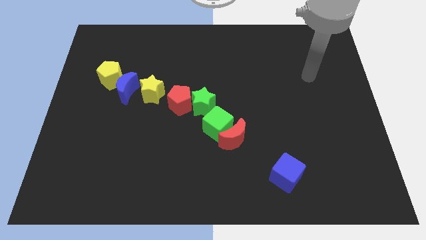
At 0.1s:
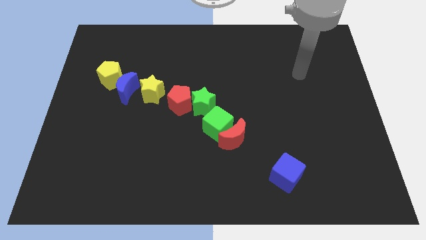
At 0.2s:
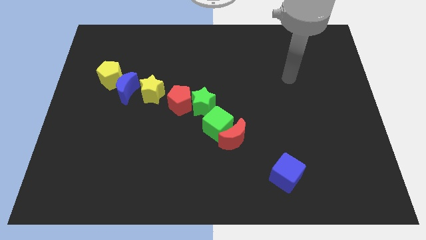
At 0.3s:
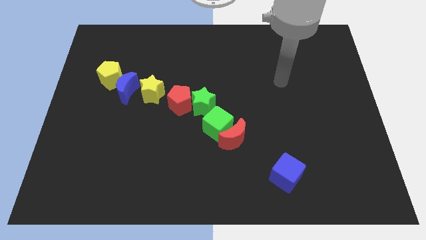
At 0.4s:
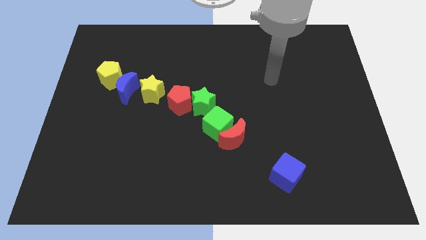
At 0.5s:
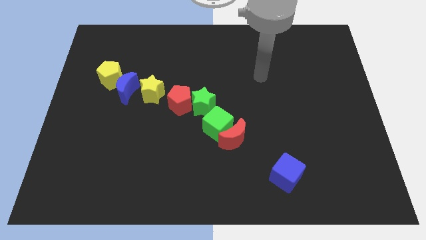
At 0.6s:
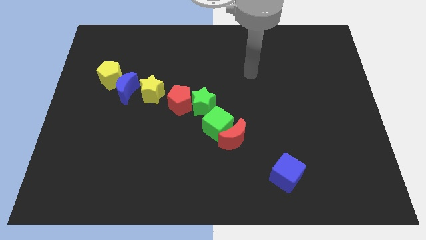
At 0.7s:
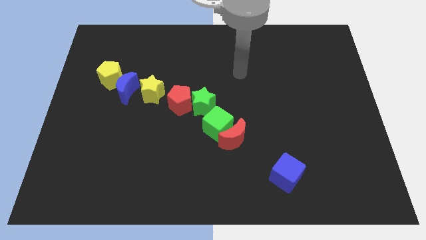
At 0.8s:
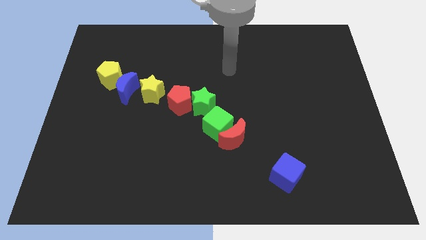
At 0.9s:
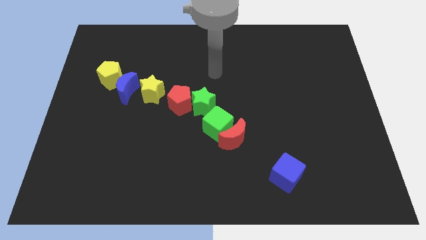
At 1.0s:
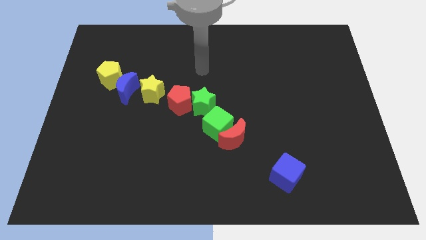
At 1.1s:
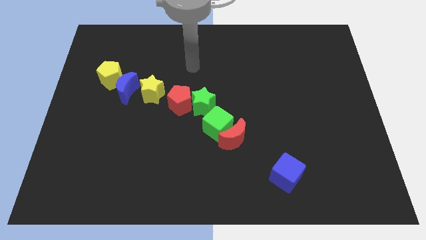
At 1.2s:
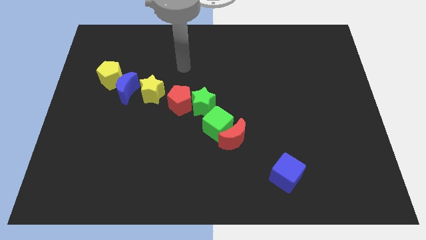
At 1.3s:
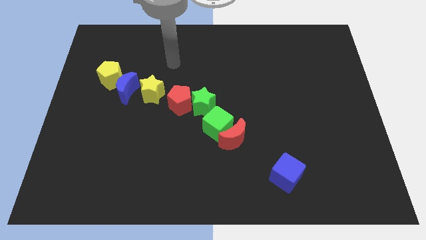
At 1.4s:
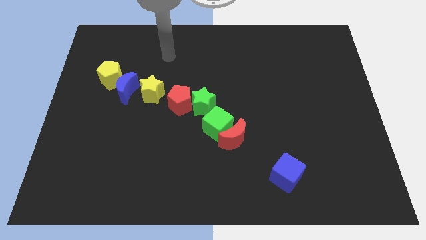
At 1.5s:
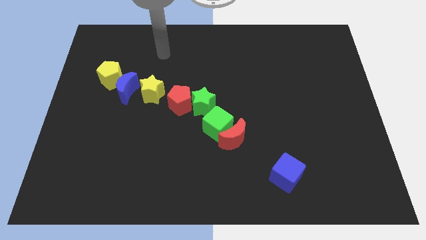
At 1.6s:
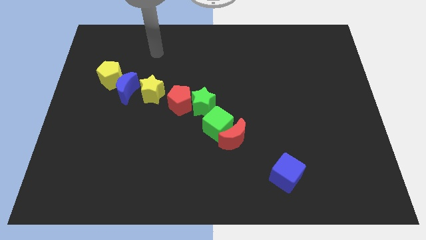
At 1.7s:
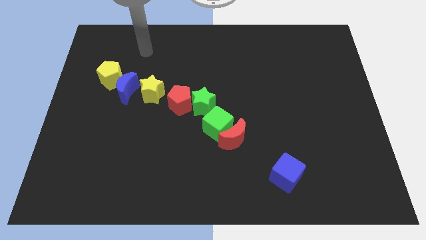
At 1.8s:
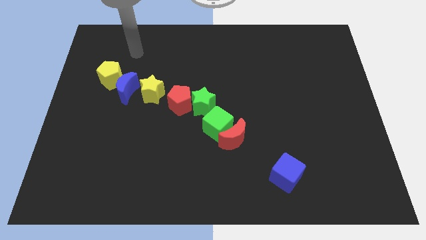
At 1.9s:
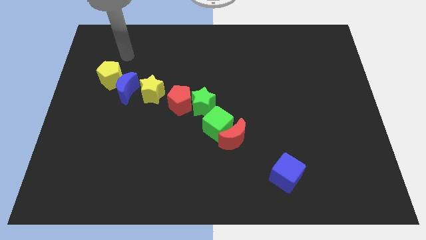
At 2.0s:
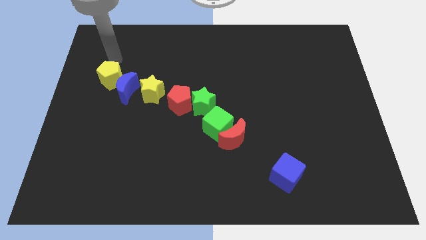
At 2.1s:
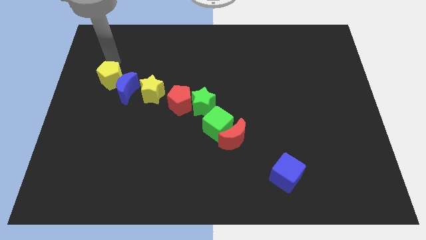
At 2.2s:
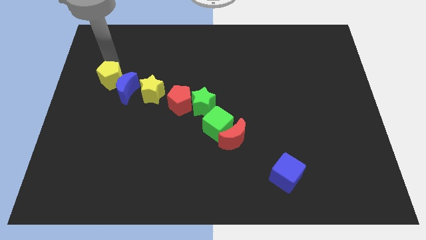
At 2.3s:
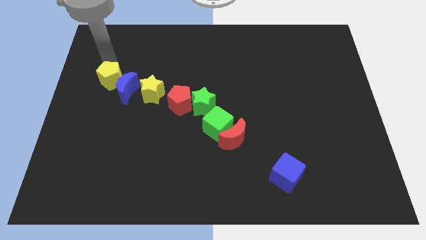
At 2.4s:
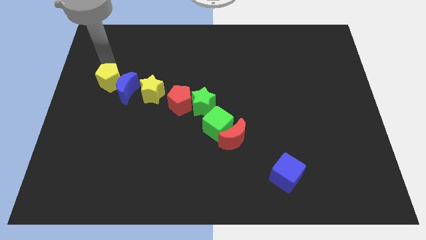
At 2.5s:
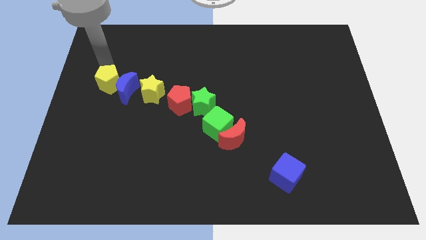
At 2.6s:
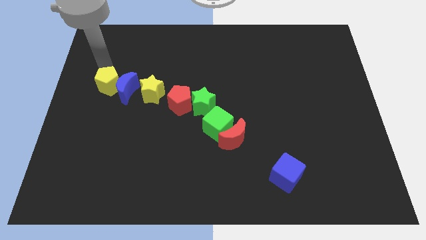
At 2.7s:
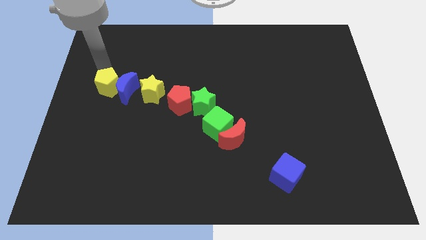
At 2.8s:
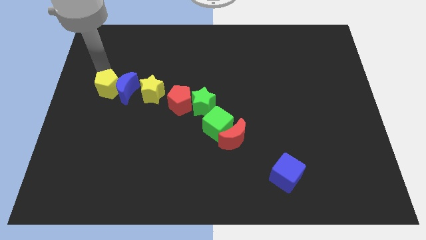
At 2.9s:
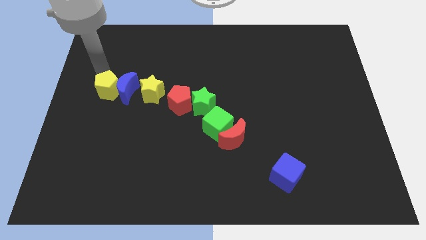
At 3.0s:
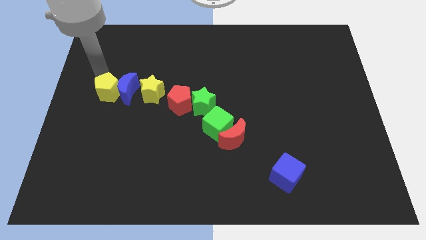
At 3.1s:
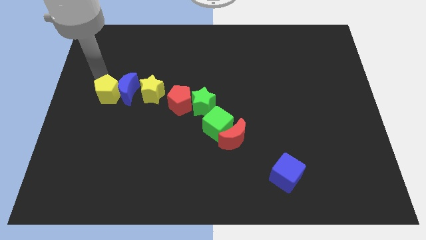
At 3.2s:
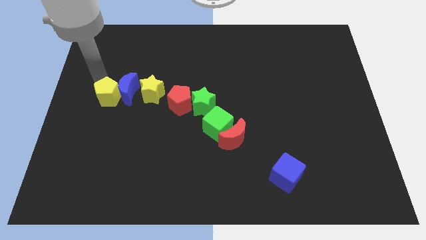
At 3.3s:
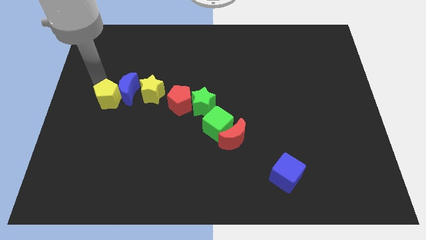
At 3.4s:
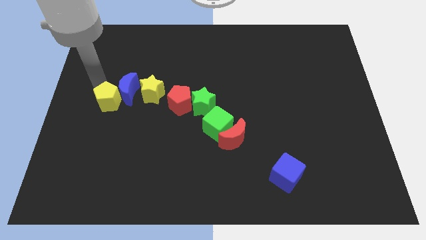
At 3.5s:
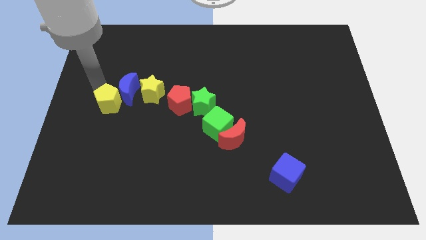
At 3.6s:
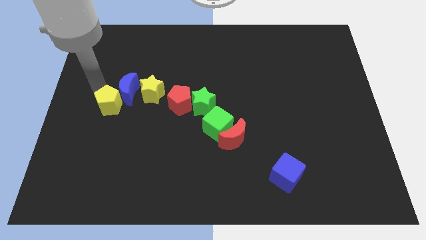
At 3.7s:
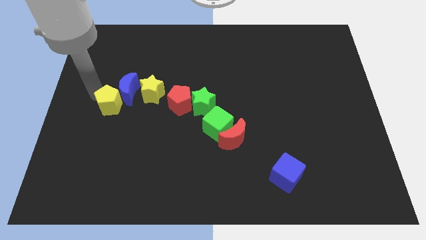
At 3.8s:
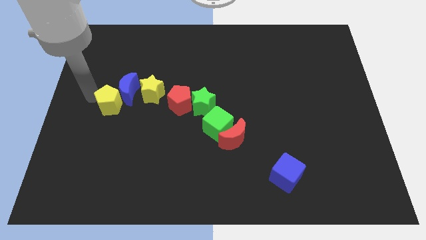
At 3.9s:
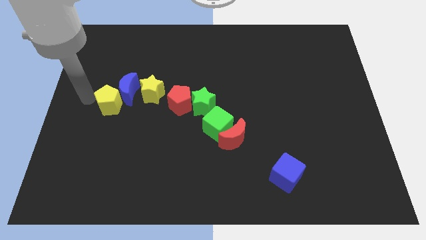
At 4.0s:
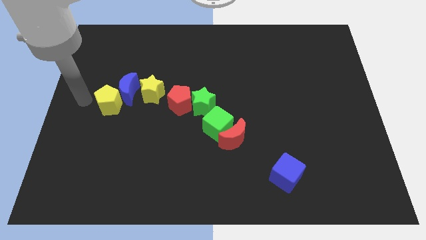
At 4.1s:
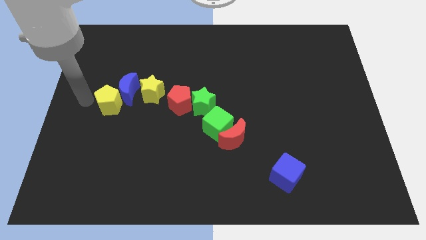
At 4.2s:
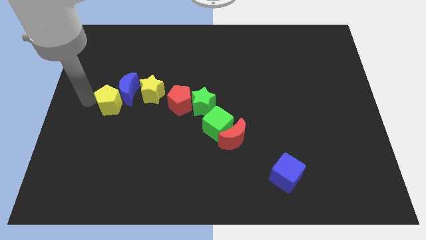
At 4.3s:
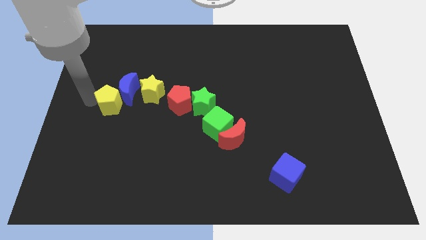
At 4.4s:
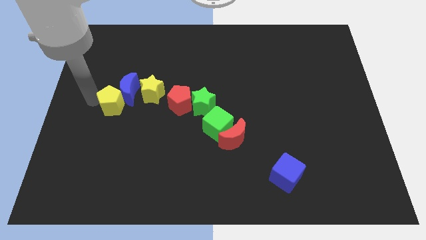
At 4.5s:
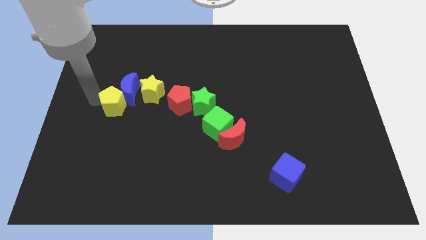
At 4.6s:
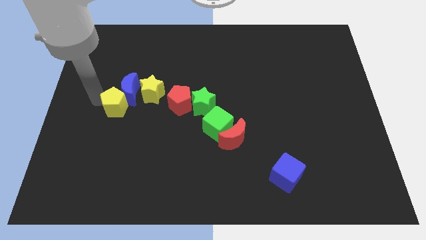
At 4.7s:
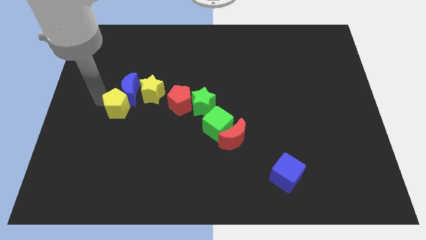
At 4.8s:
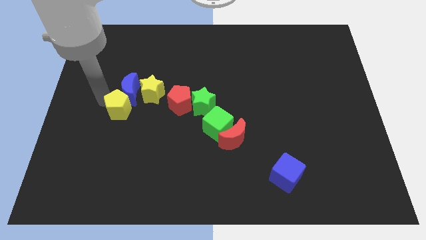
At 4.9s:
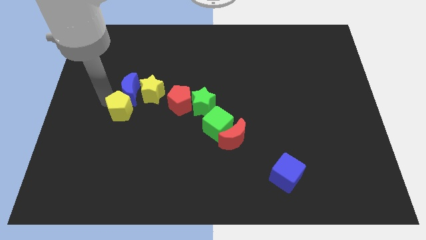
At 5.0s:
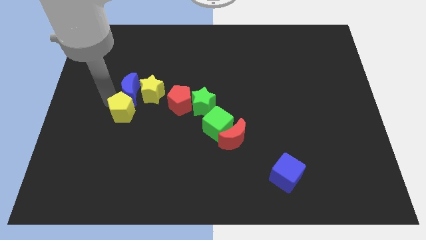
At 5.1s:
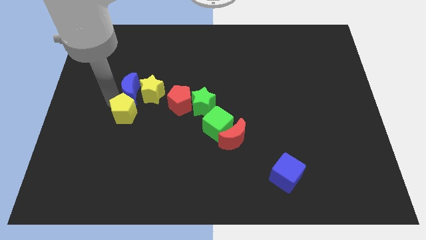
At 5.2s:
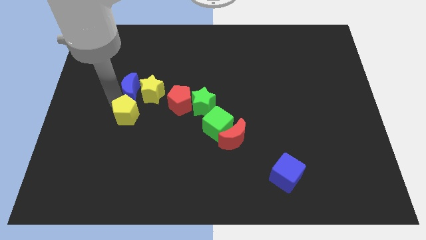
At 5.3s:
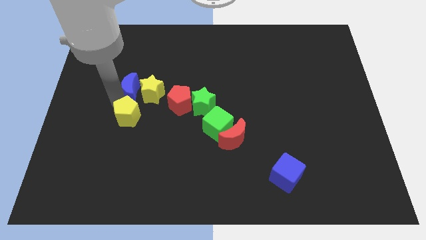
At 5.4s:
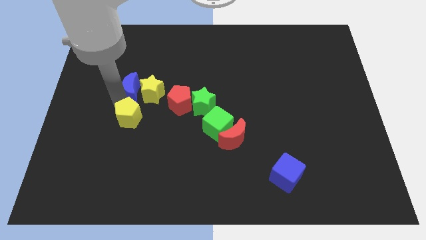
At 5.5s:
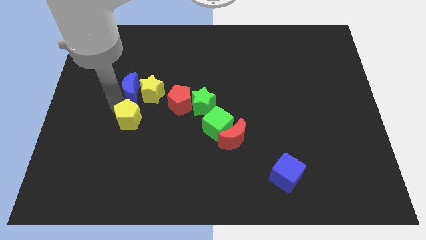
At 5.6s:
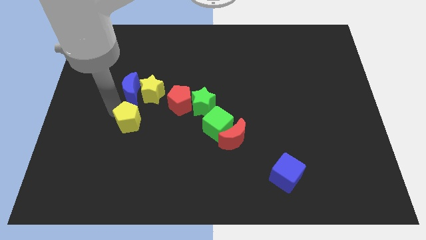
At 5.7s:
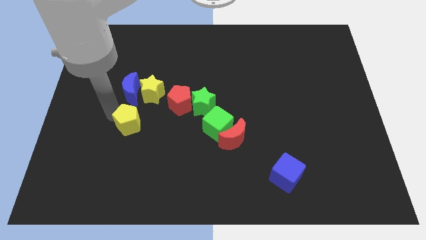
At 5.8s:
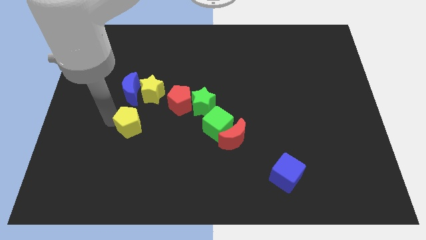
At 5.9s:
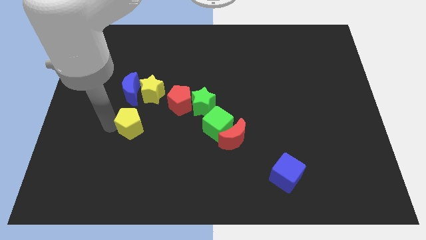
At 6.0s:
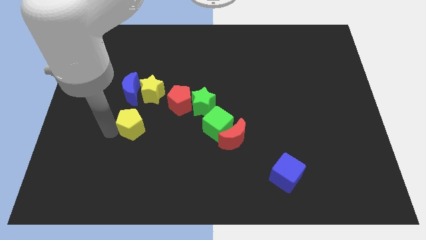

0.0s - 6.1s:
move the yellow pentagon diagonally down and to the left of the red pentagon

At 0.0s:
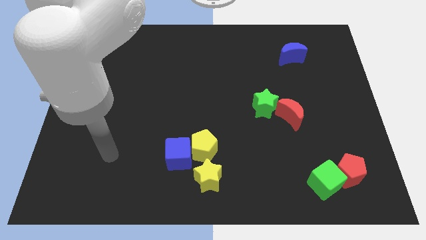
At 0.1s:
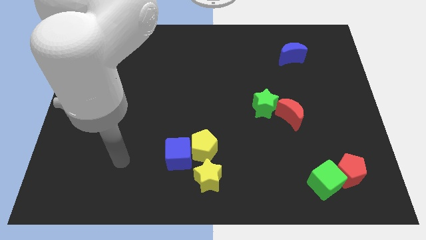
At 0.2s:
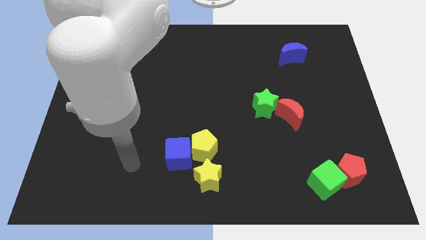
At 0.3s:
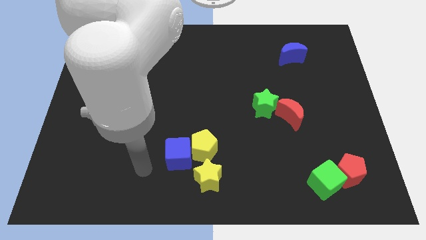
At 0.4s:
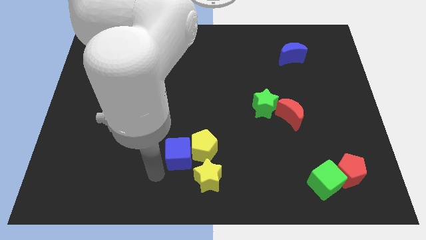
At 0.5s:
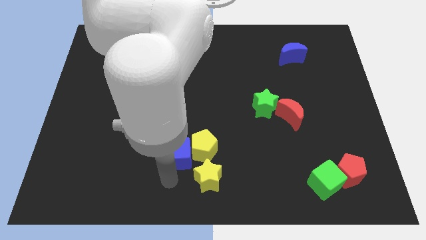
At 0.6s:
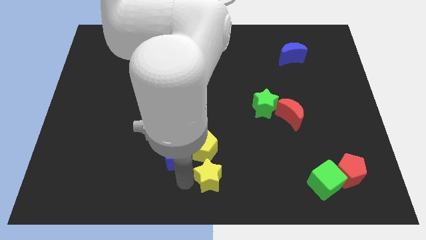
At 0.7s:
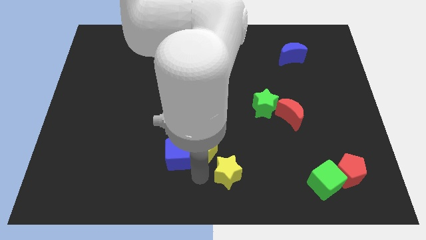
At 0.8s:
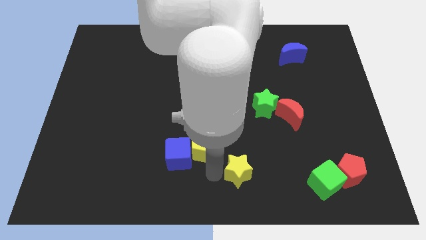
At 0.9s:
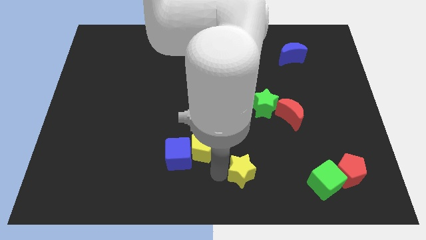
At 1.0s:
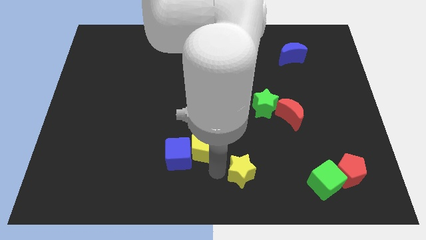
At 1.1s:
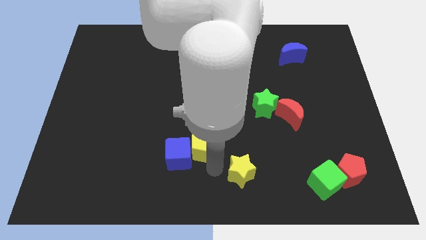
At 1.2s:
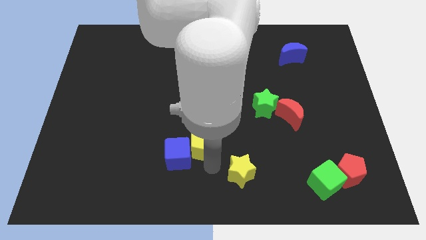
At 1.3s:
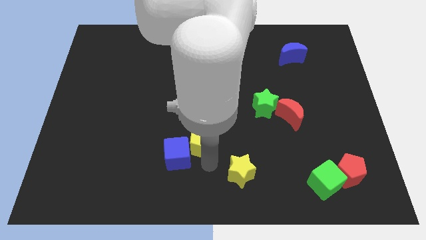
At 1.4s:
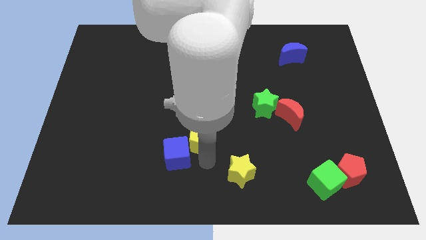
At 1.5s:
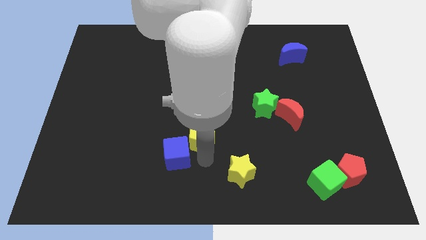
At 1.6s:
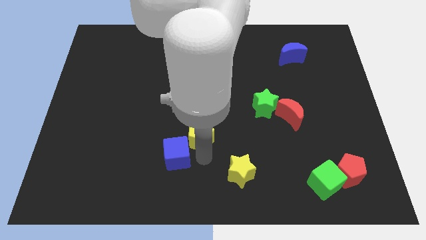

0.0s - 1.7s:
move the yellow pentagon to the top side of the blue cube

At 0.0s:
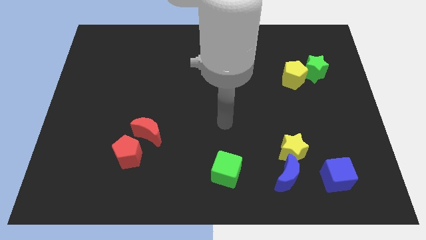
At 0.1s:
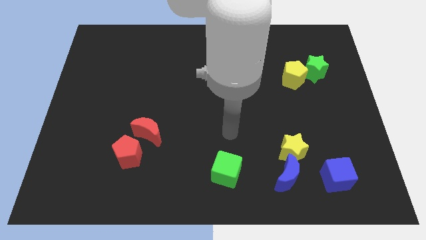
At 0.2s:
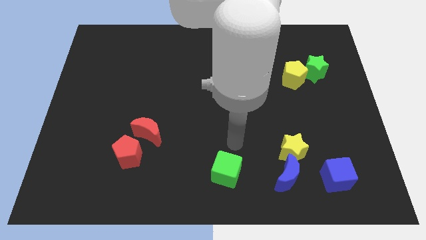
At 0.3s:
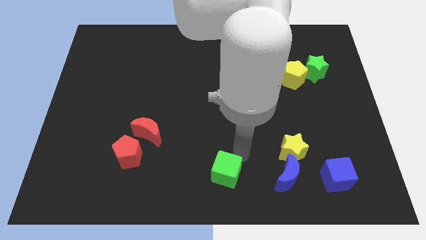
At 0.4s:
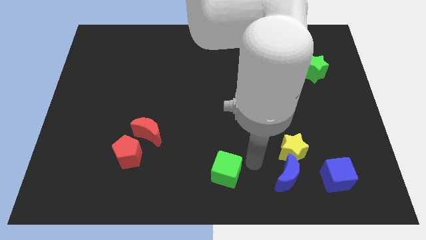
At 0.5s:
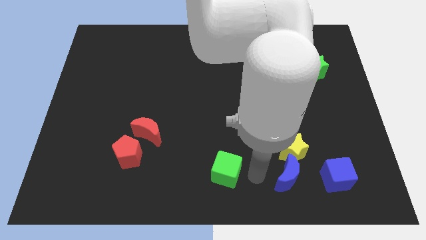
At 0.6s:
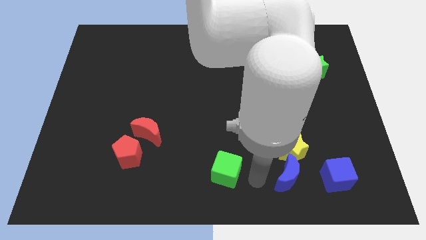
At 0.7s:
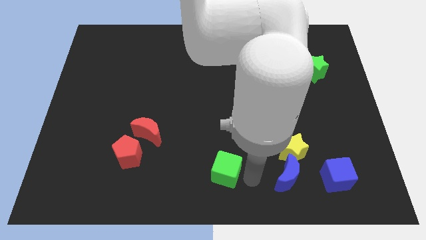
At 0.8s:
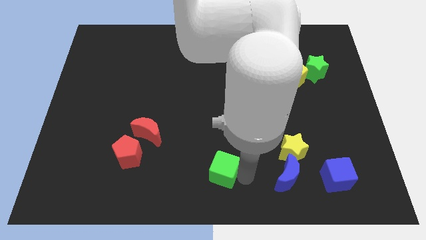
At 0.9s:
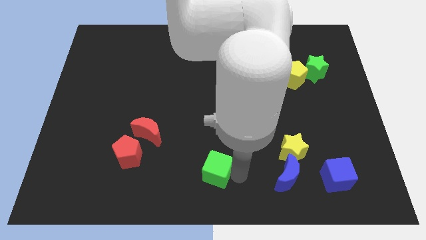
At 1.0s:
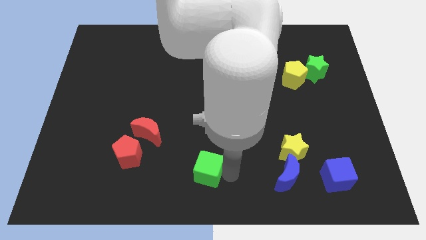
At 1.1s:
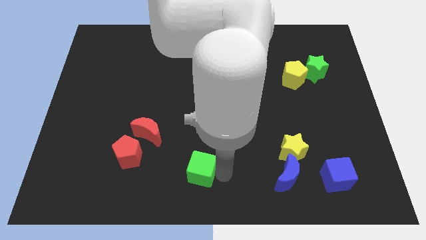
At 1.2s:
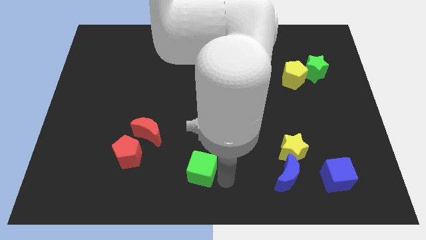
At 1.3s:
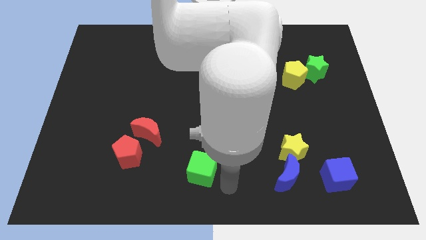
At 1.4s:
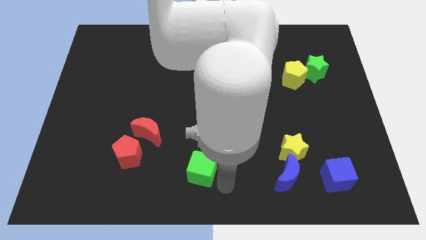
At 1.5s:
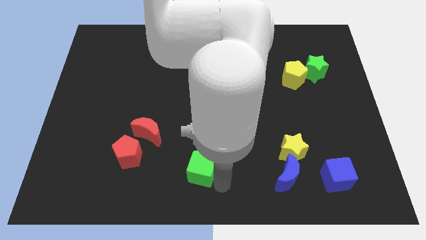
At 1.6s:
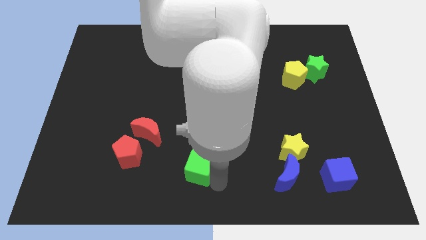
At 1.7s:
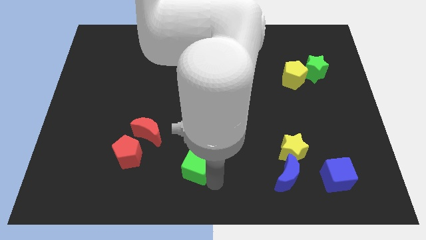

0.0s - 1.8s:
move the green cube just right of the red pentagon
